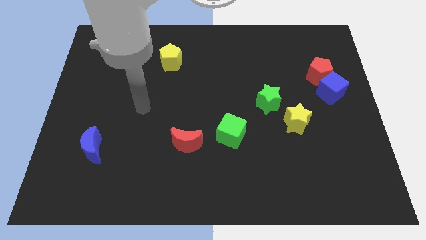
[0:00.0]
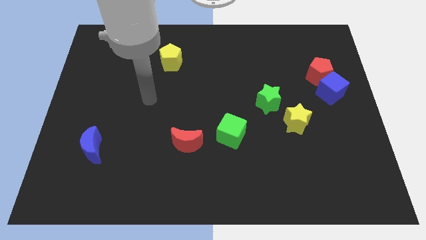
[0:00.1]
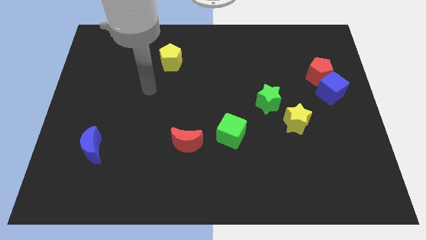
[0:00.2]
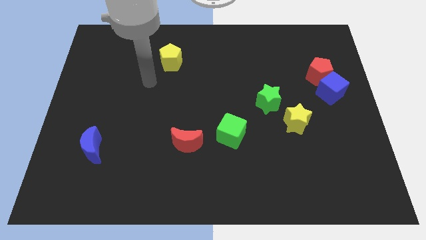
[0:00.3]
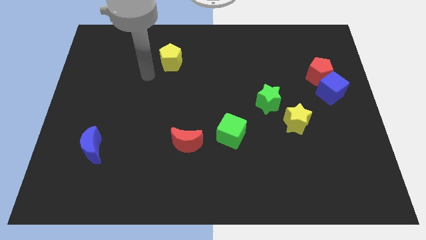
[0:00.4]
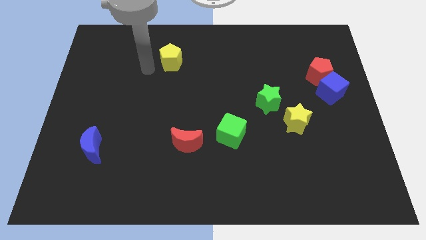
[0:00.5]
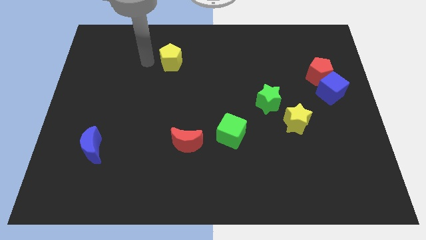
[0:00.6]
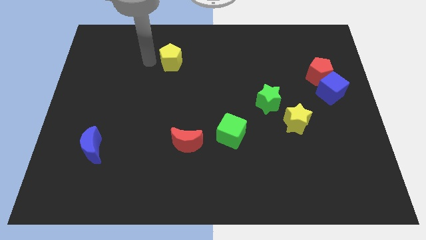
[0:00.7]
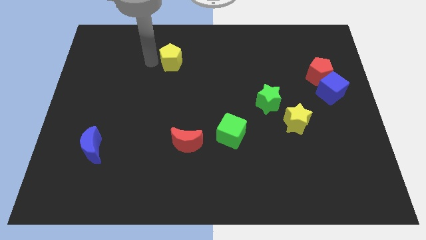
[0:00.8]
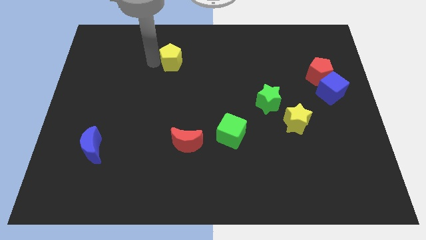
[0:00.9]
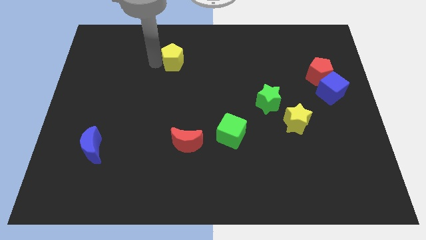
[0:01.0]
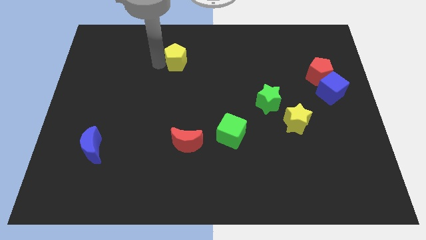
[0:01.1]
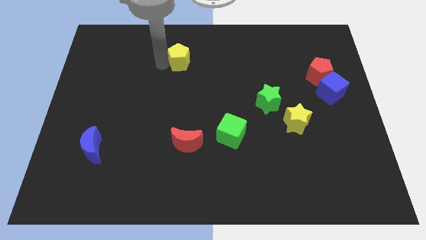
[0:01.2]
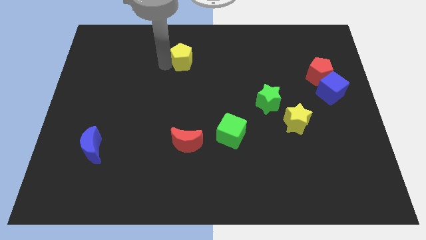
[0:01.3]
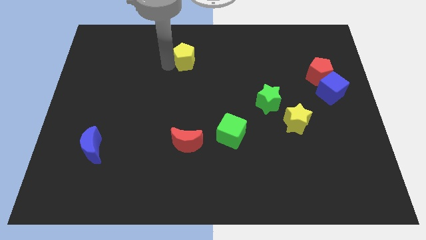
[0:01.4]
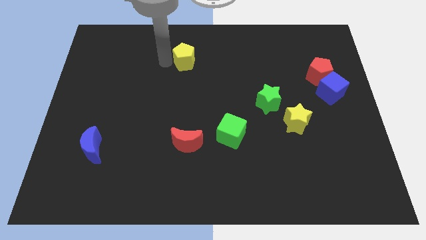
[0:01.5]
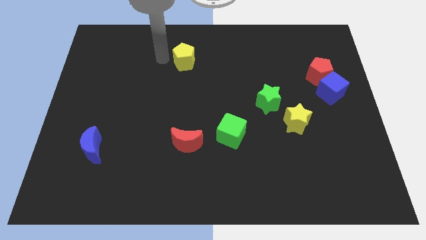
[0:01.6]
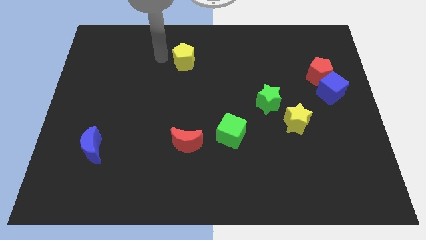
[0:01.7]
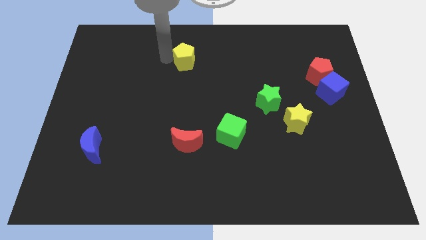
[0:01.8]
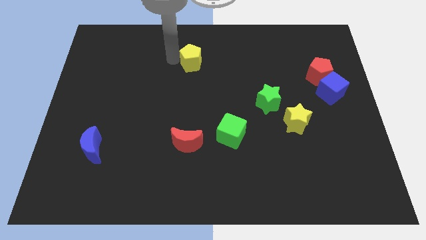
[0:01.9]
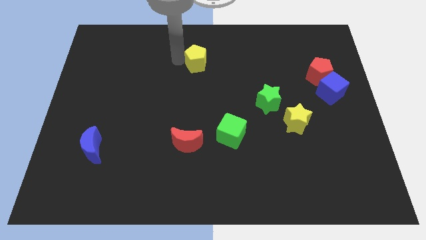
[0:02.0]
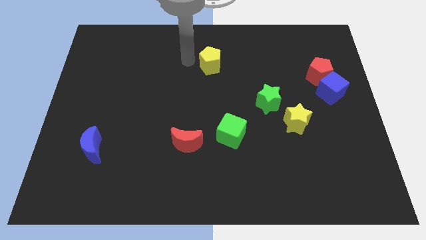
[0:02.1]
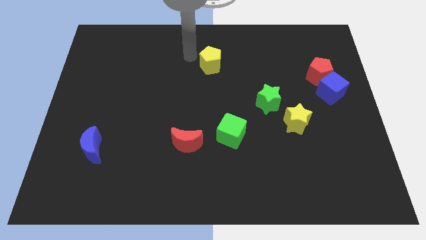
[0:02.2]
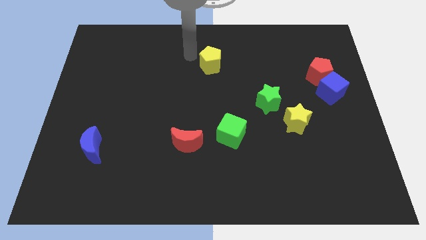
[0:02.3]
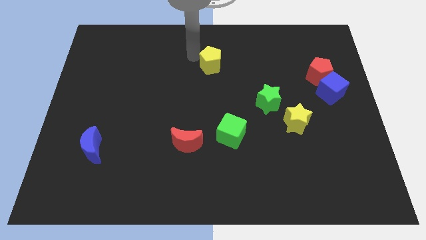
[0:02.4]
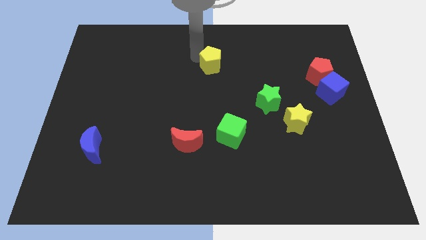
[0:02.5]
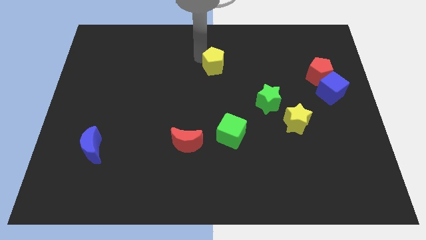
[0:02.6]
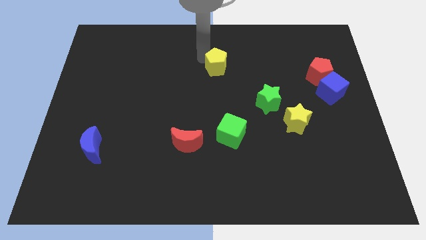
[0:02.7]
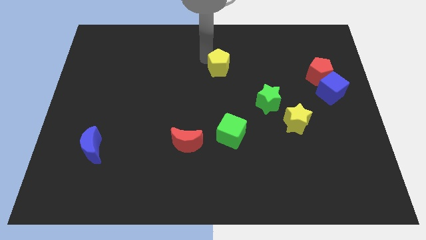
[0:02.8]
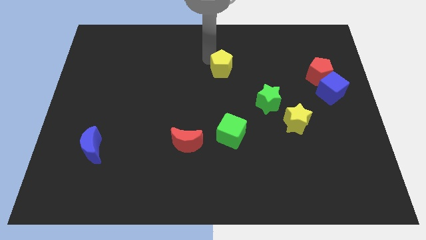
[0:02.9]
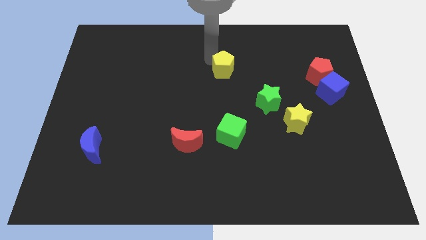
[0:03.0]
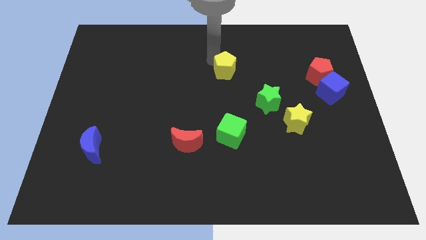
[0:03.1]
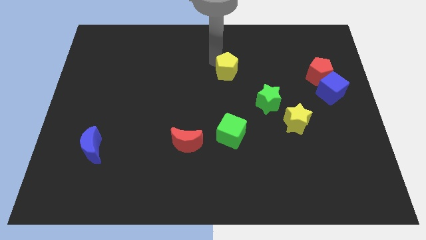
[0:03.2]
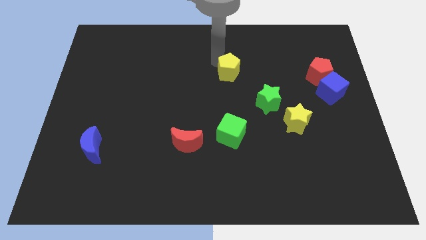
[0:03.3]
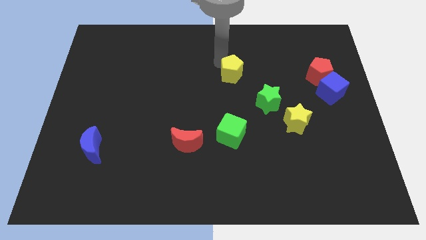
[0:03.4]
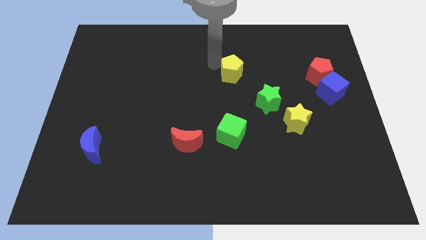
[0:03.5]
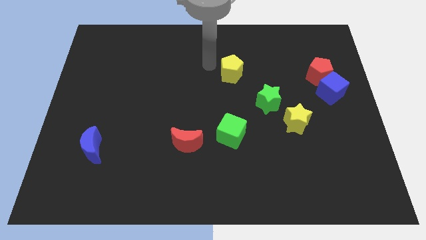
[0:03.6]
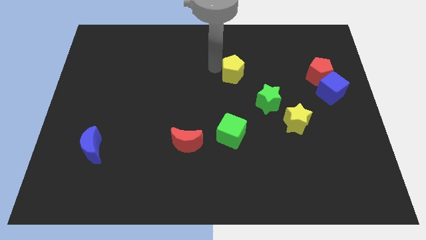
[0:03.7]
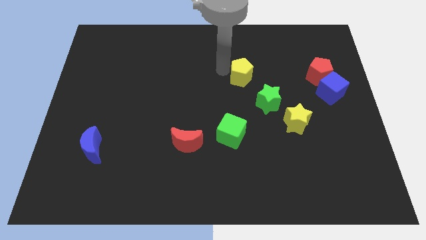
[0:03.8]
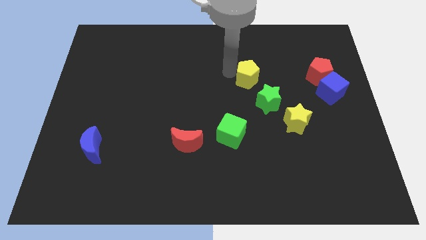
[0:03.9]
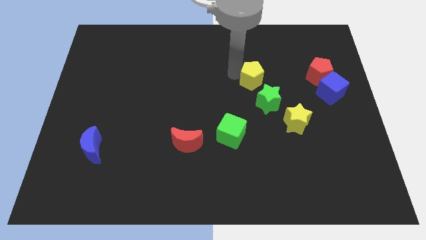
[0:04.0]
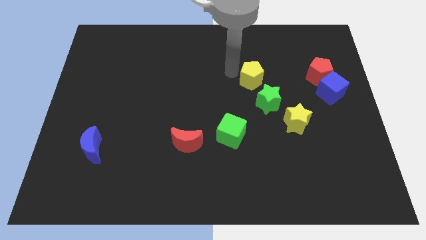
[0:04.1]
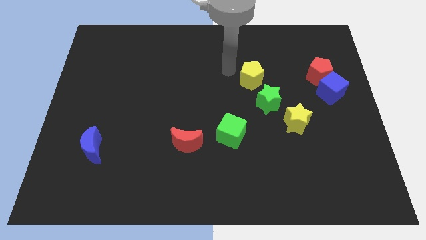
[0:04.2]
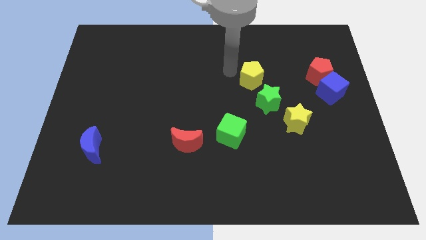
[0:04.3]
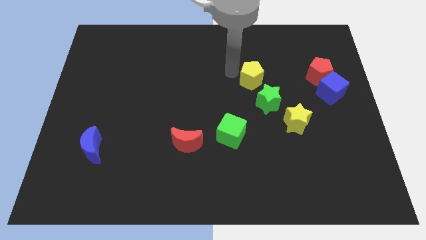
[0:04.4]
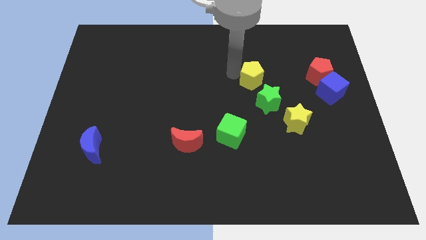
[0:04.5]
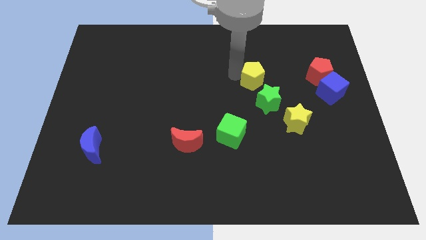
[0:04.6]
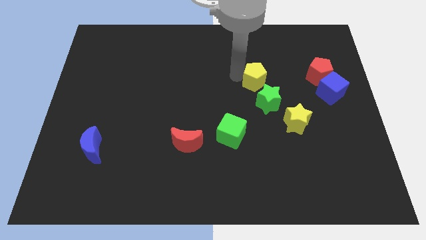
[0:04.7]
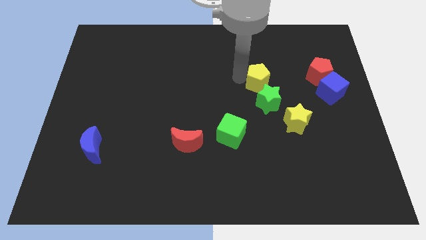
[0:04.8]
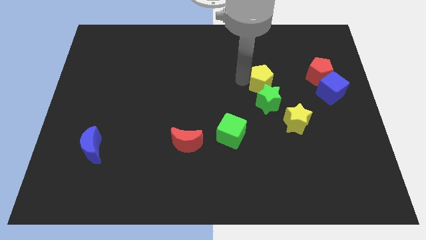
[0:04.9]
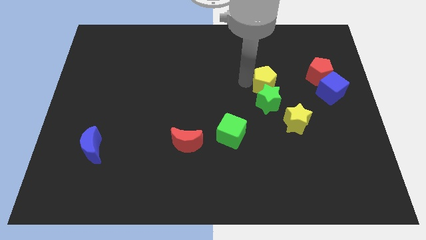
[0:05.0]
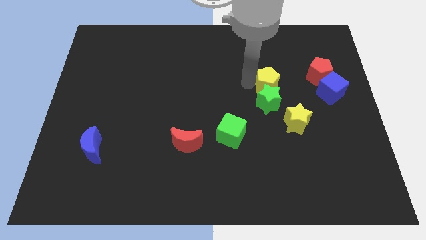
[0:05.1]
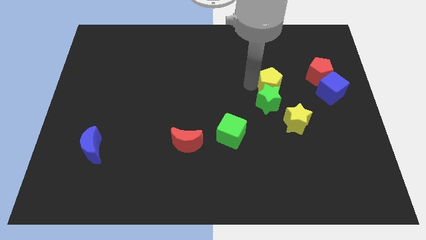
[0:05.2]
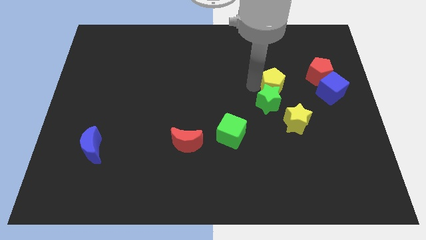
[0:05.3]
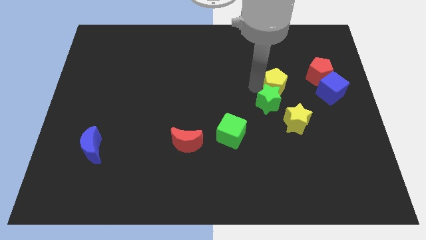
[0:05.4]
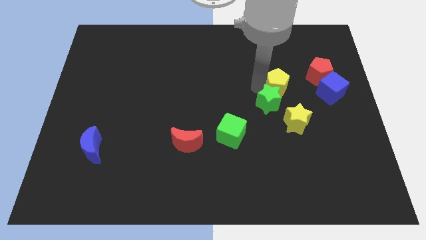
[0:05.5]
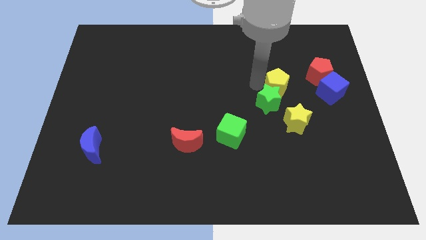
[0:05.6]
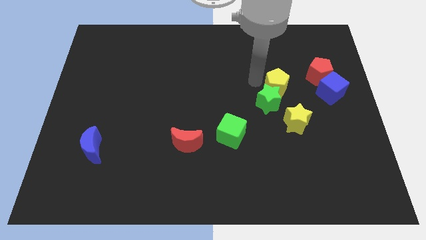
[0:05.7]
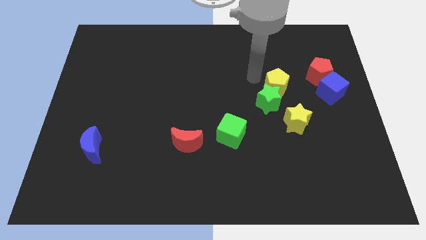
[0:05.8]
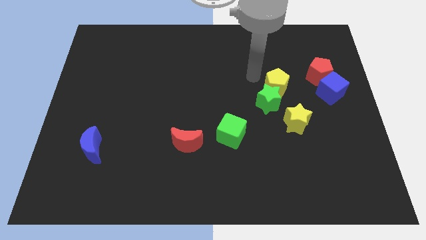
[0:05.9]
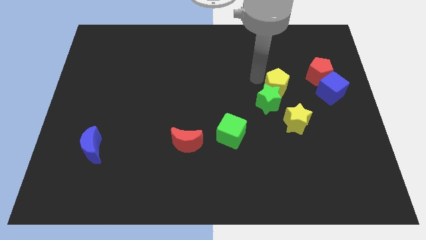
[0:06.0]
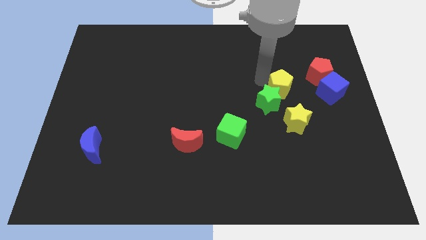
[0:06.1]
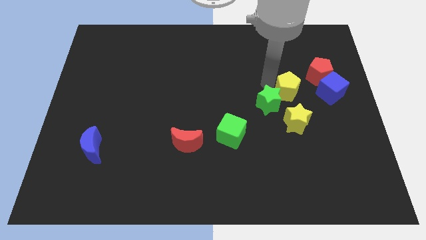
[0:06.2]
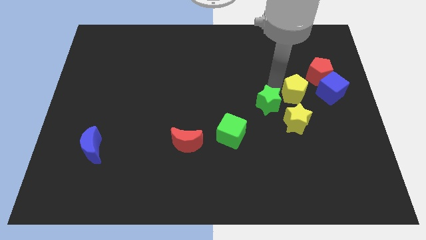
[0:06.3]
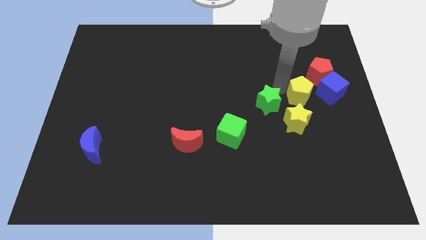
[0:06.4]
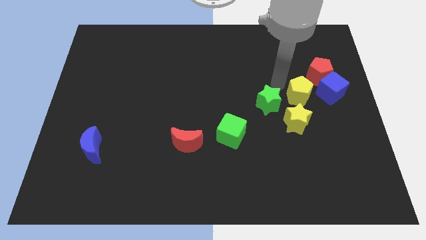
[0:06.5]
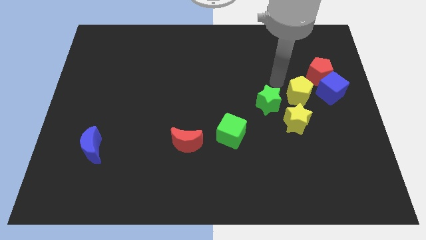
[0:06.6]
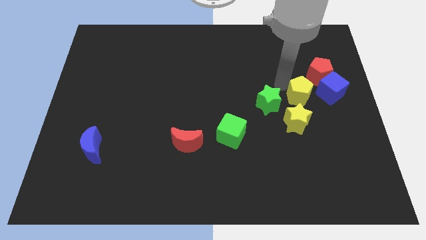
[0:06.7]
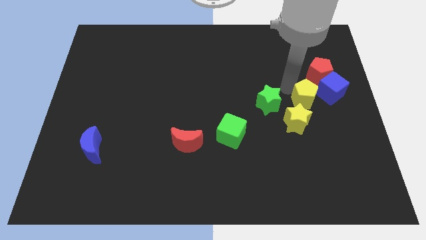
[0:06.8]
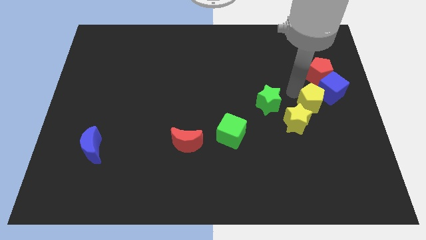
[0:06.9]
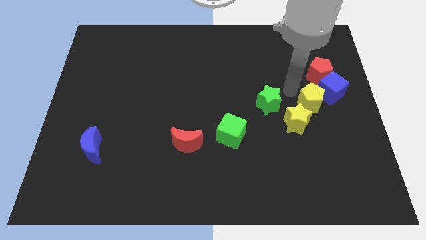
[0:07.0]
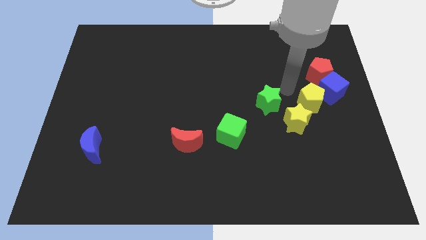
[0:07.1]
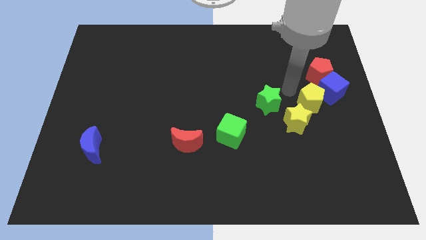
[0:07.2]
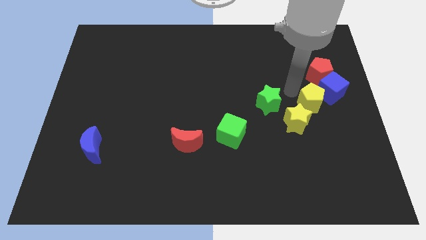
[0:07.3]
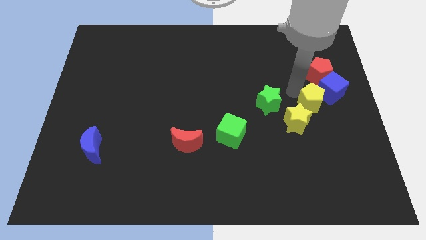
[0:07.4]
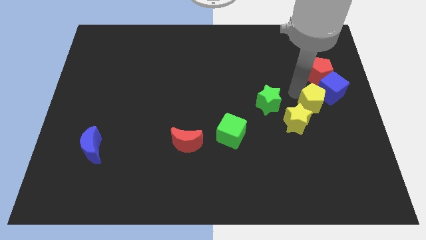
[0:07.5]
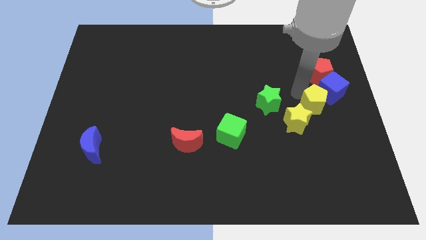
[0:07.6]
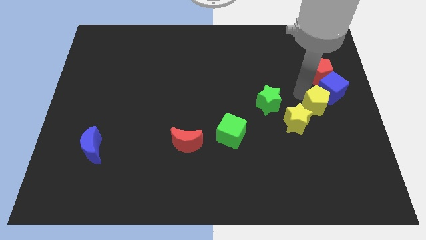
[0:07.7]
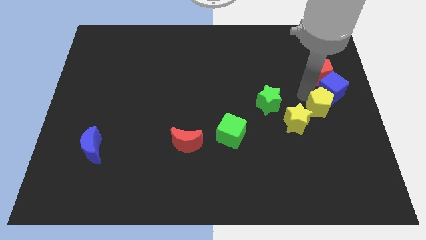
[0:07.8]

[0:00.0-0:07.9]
push the yellow pentagon to the center right
